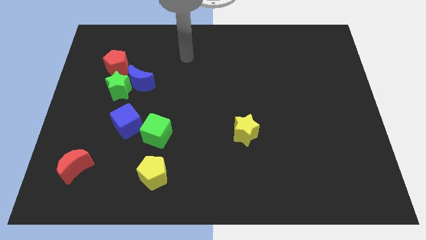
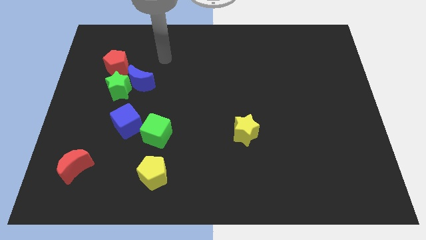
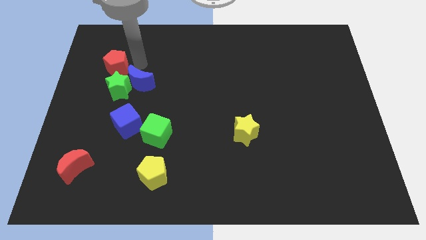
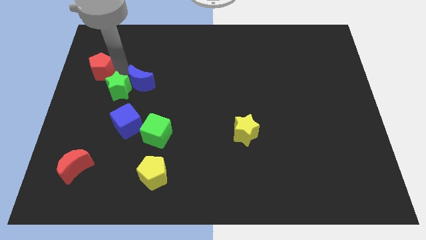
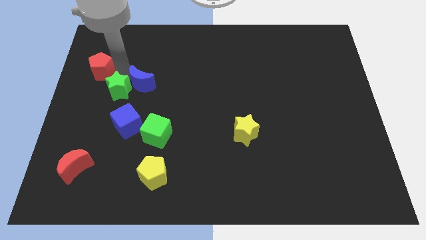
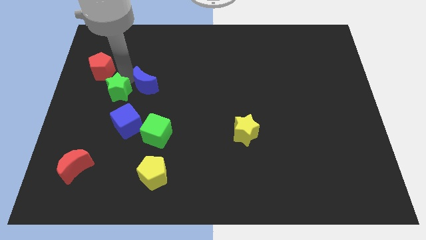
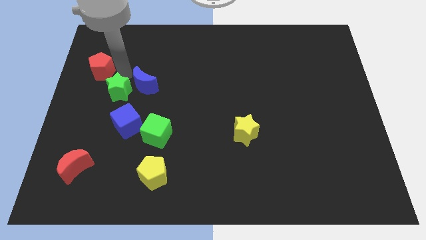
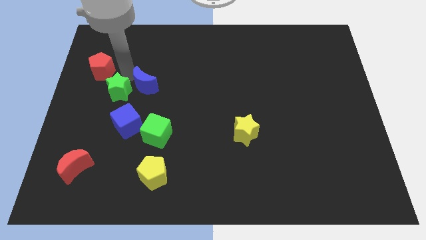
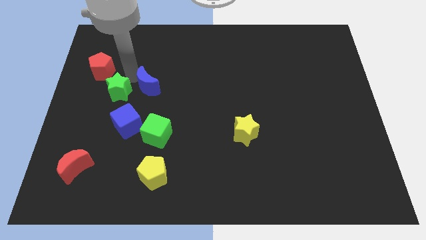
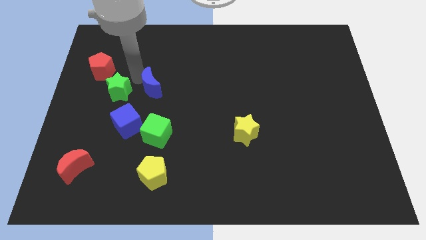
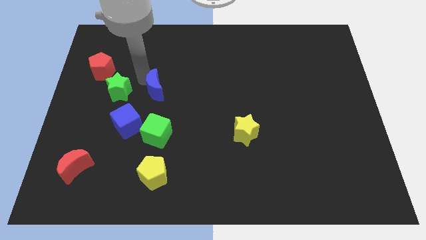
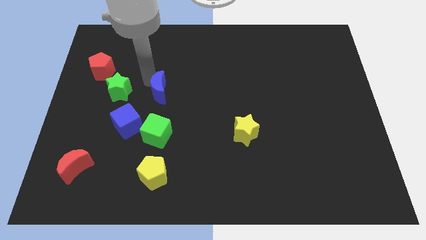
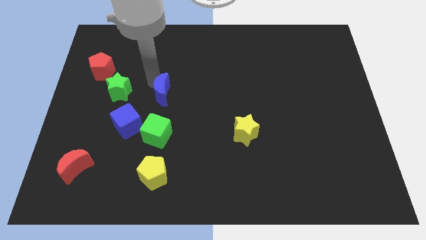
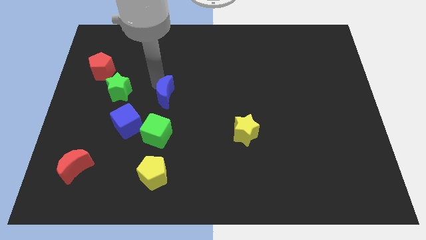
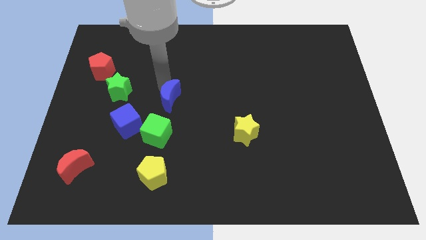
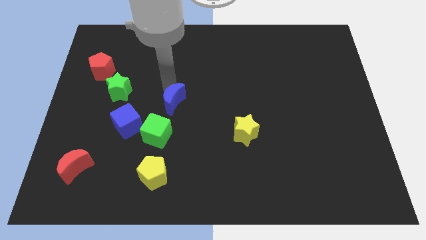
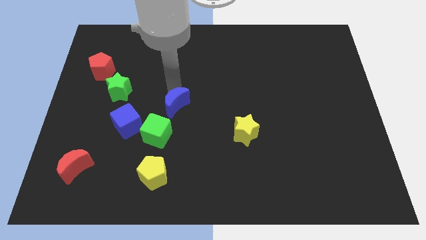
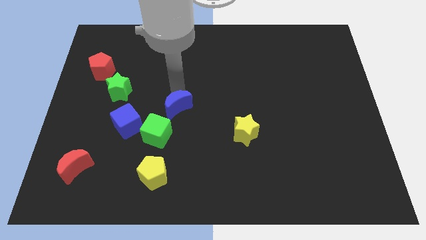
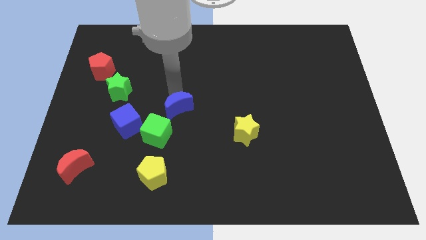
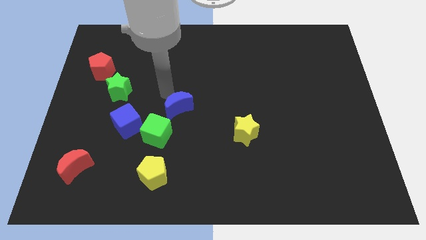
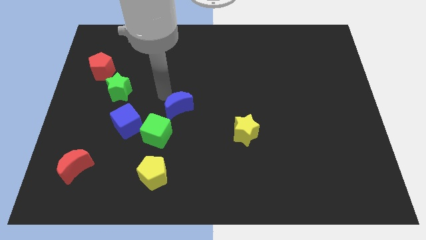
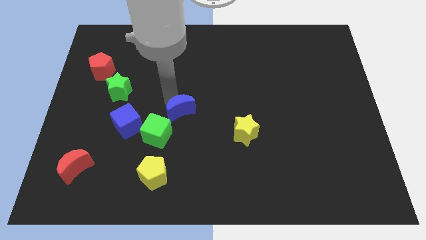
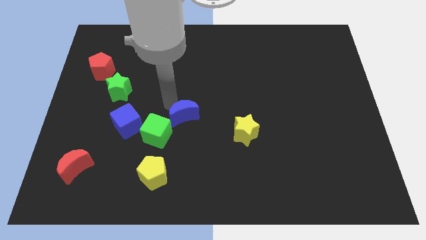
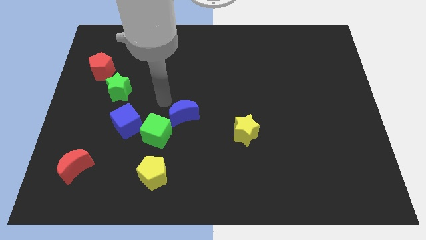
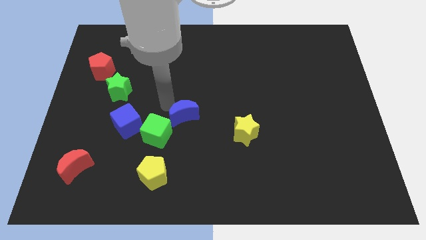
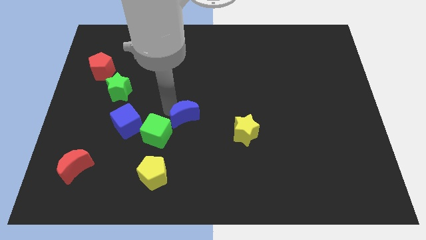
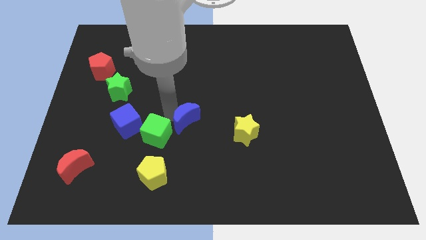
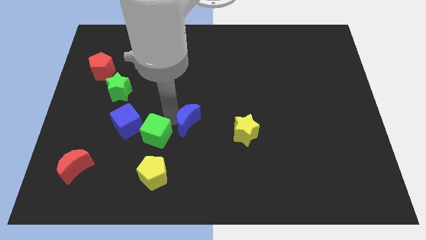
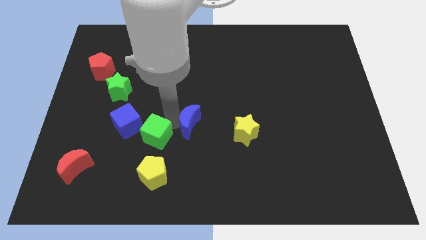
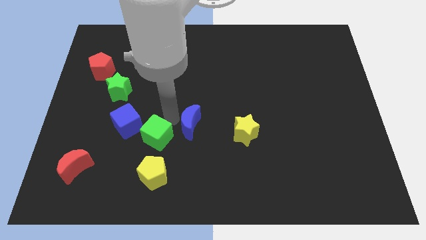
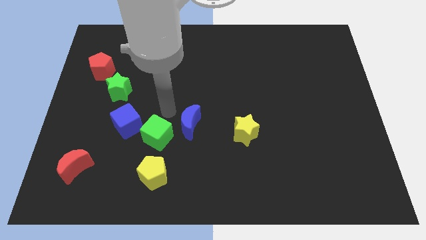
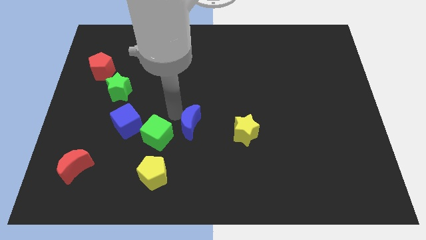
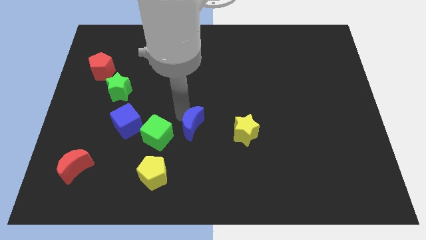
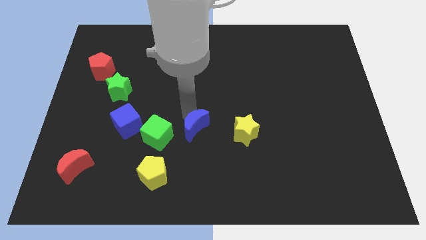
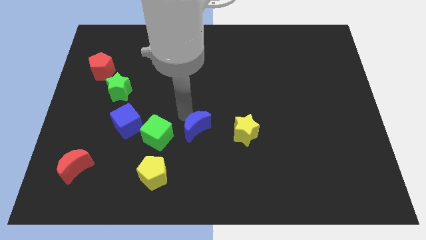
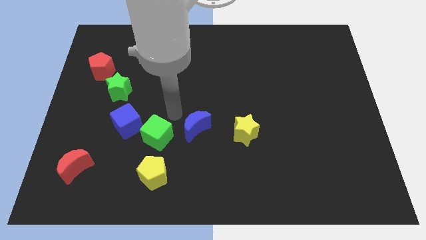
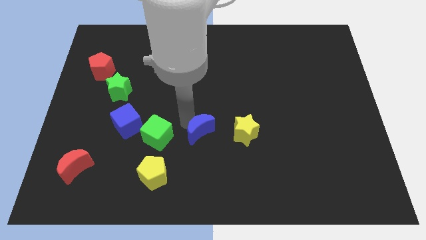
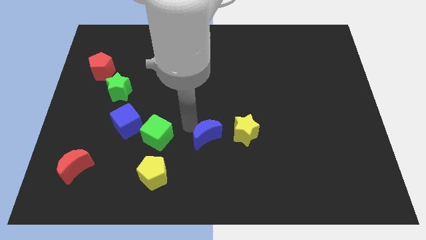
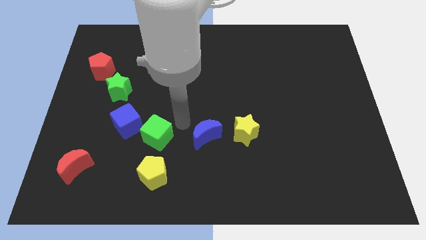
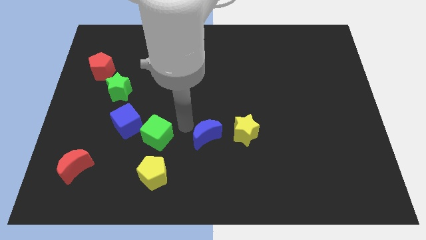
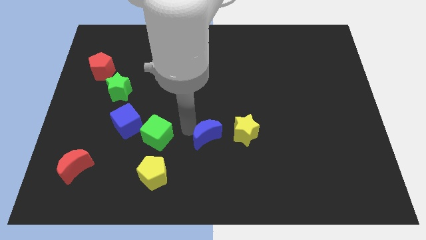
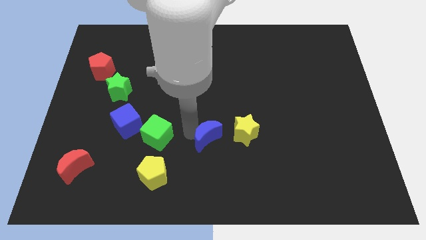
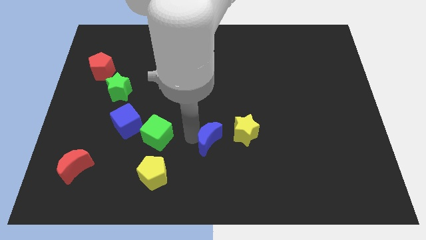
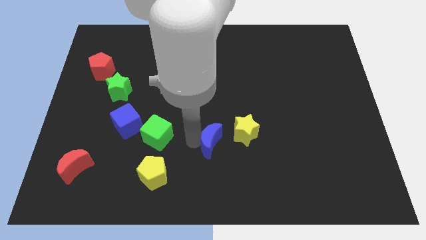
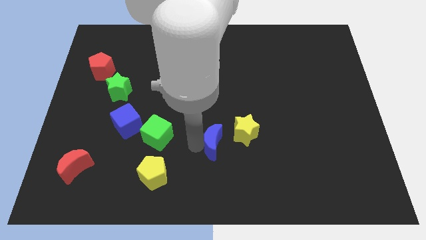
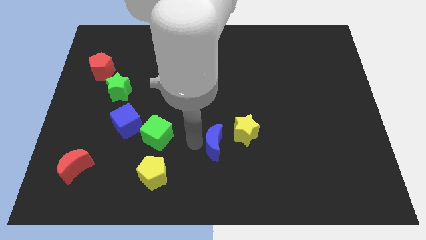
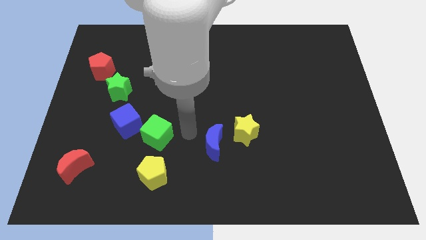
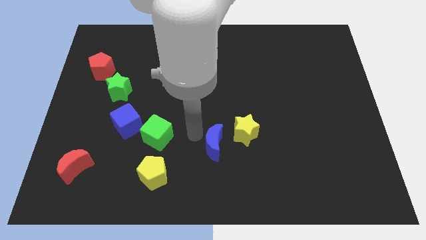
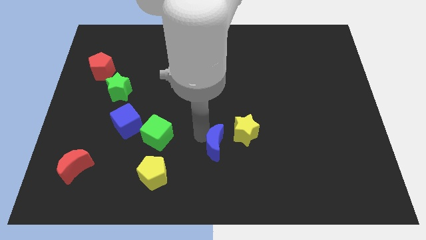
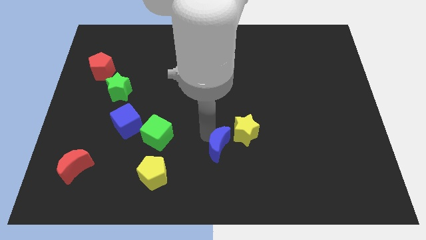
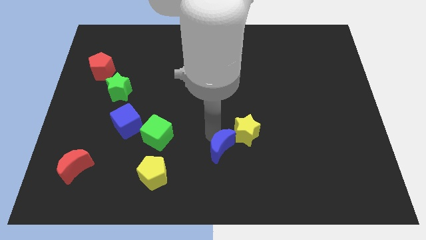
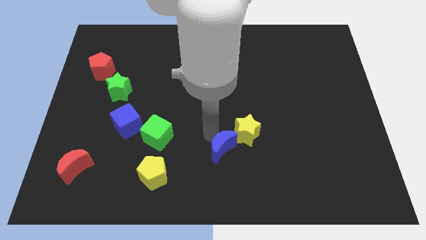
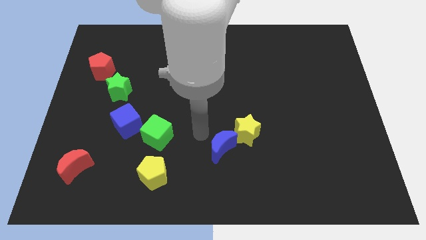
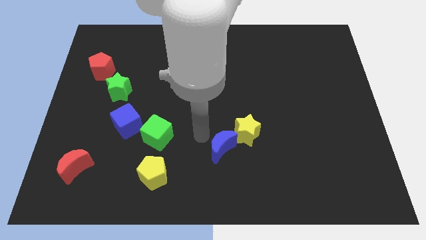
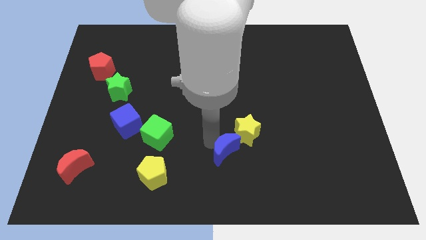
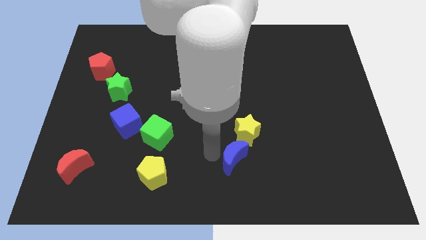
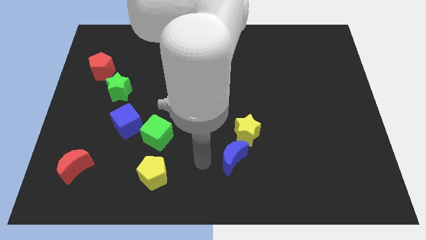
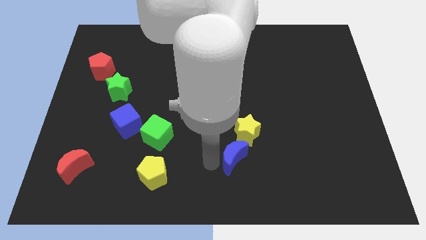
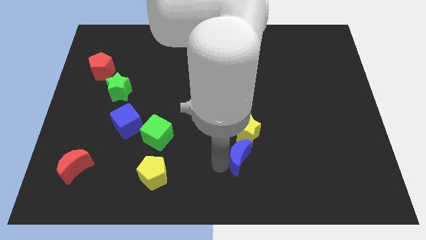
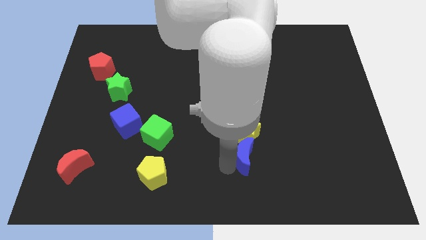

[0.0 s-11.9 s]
slide the blue moon to the bottom right of the yellow star

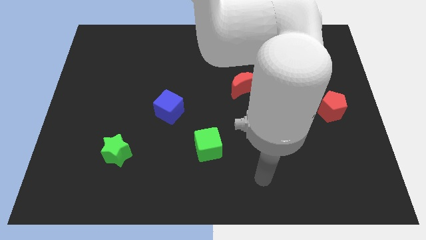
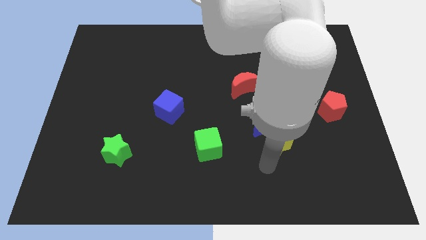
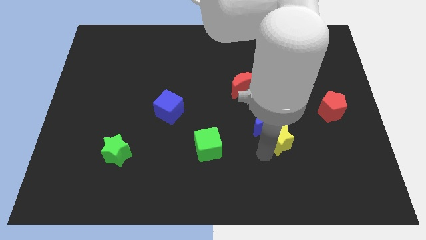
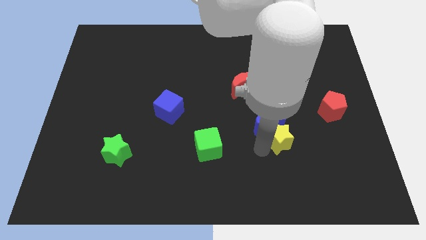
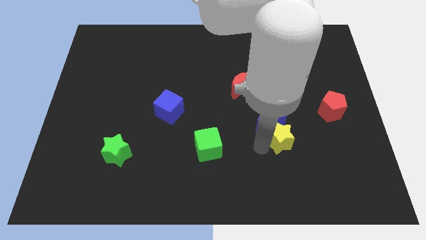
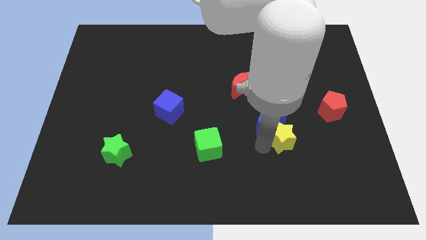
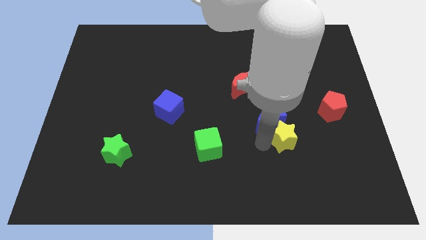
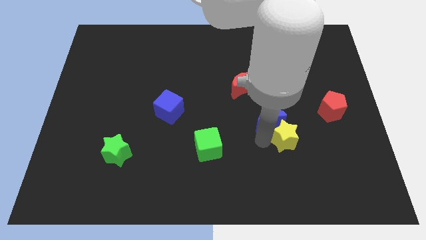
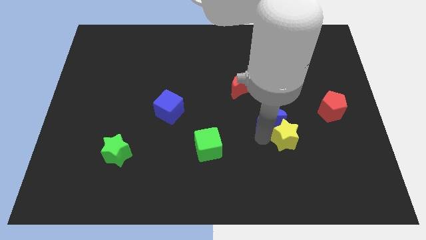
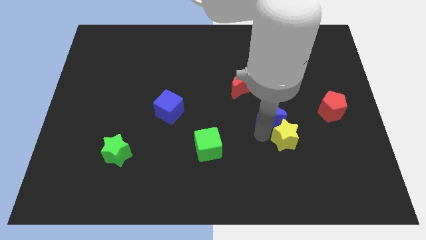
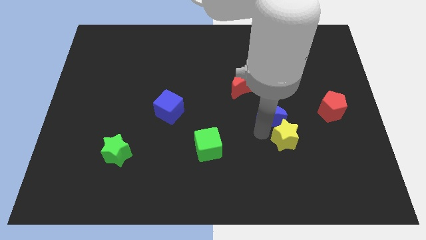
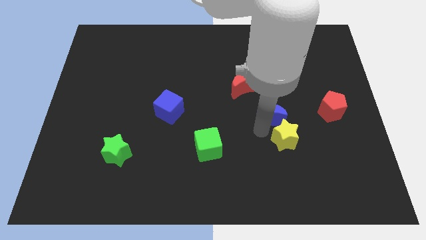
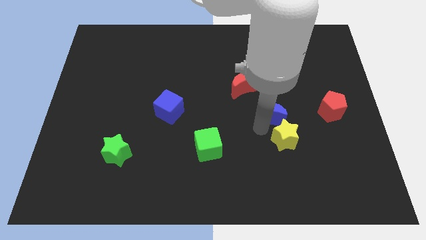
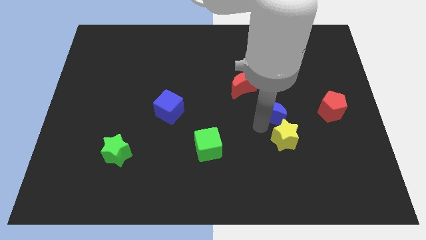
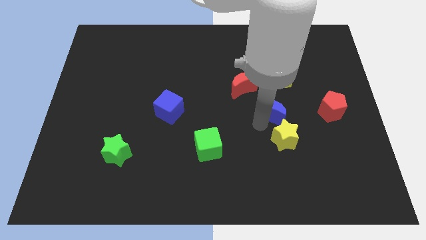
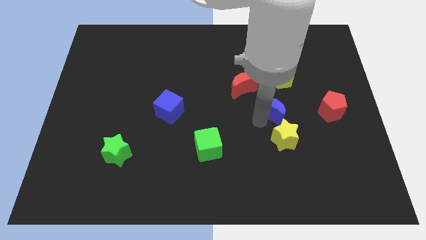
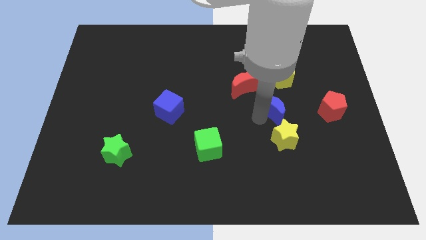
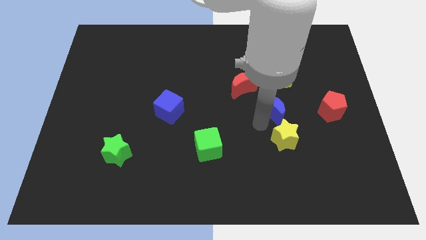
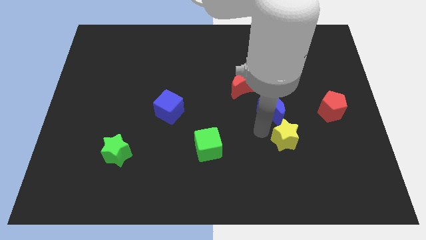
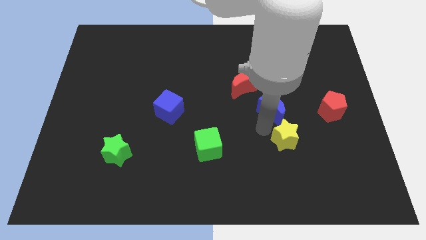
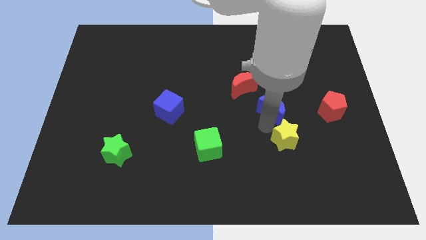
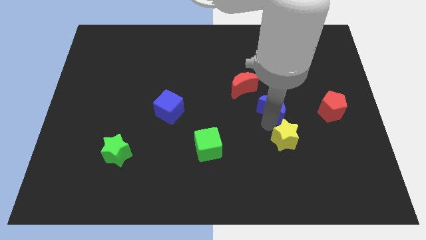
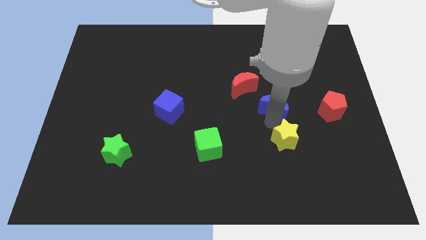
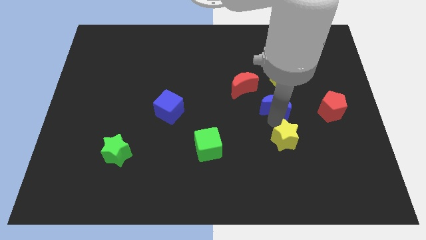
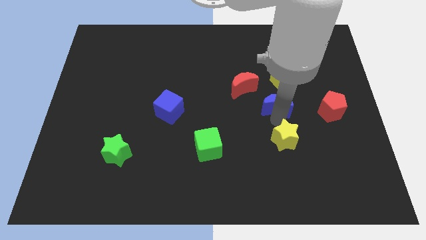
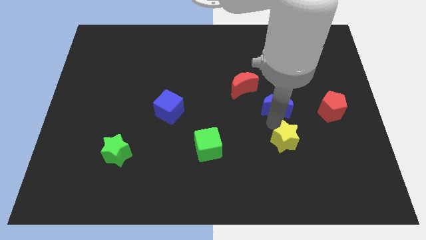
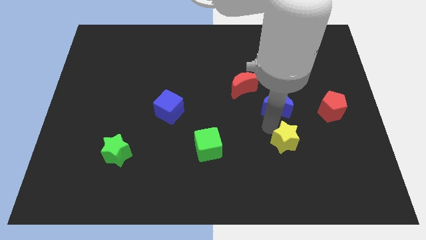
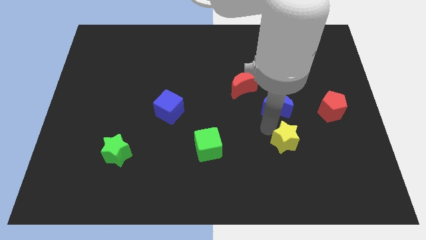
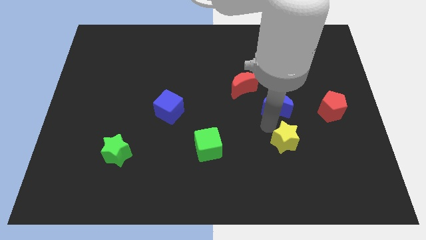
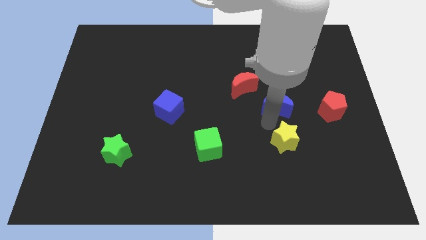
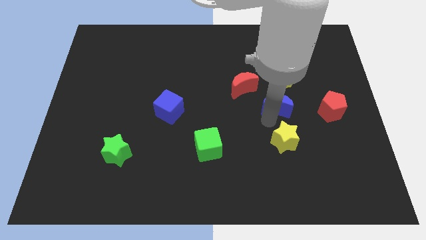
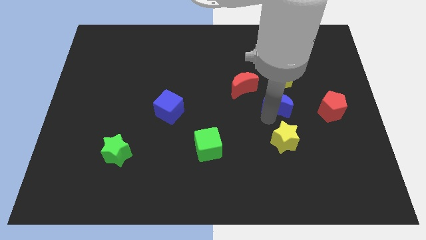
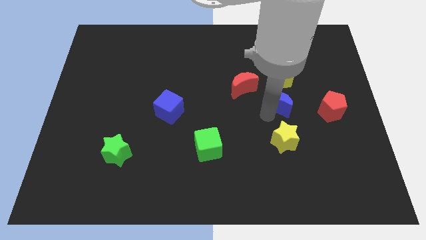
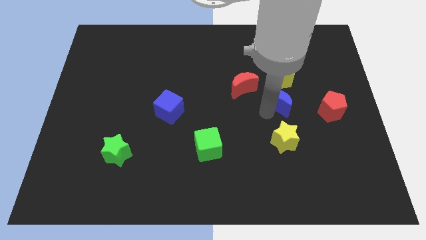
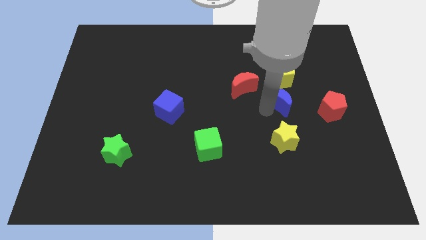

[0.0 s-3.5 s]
put the blue moon to the right of the red moon
